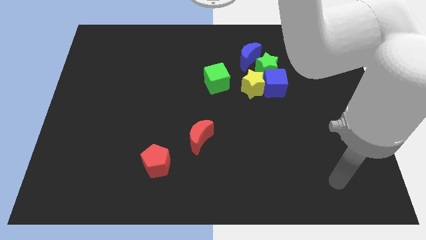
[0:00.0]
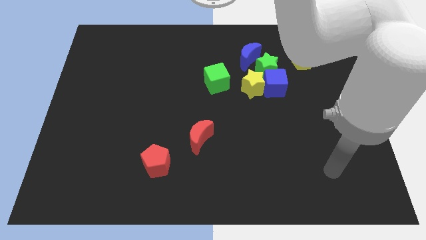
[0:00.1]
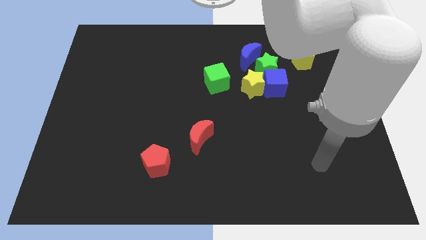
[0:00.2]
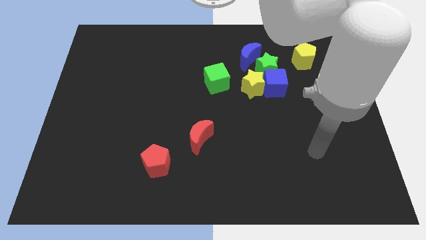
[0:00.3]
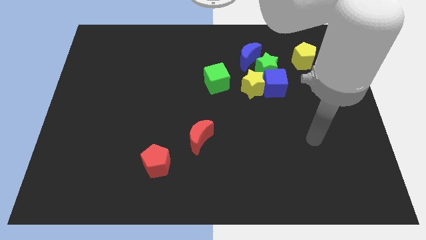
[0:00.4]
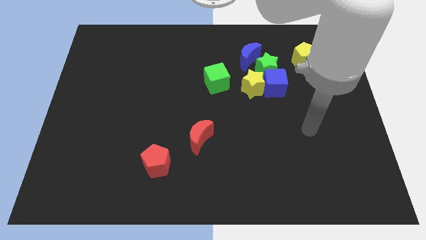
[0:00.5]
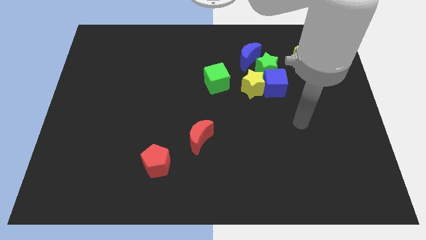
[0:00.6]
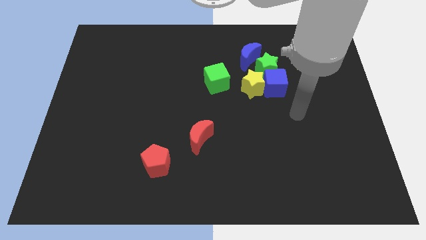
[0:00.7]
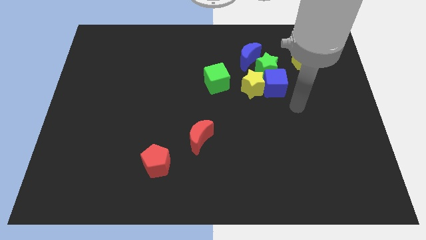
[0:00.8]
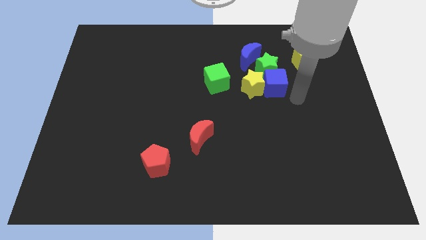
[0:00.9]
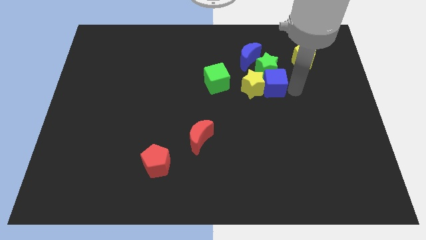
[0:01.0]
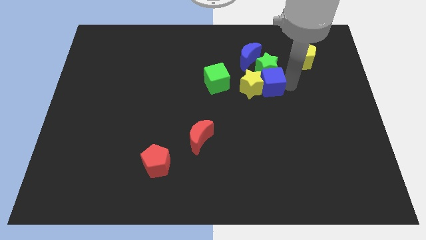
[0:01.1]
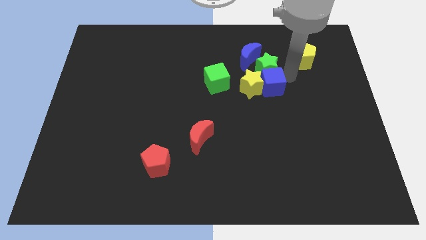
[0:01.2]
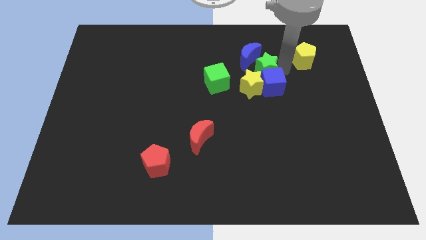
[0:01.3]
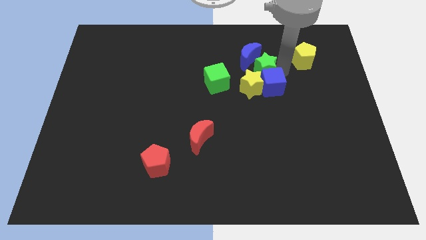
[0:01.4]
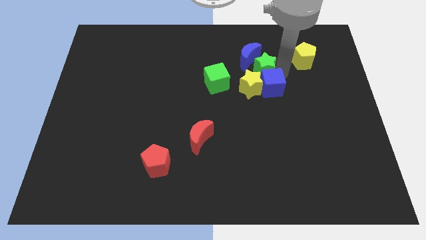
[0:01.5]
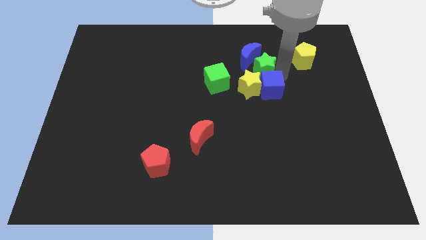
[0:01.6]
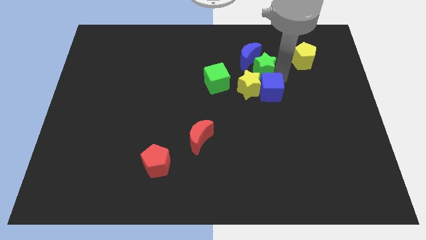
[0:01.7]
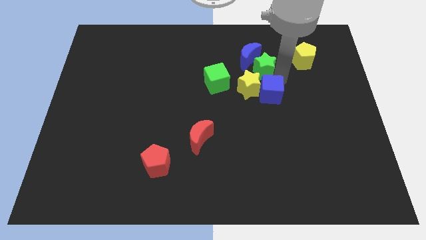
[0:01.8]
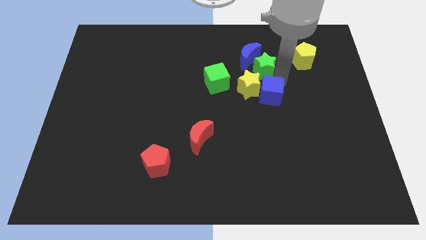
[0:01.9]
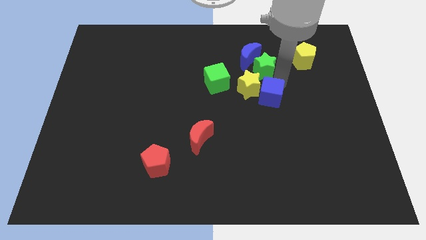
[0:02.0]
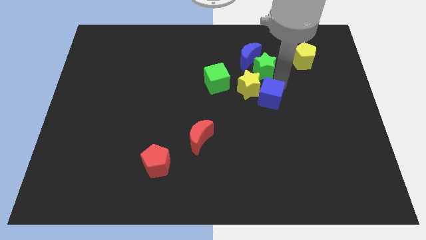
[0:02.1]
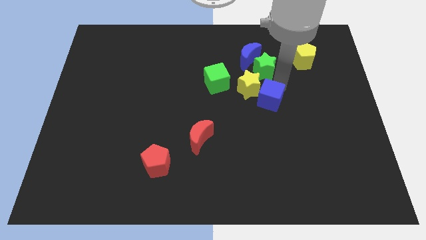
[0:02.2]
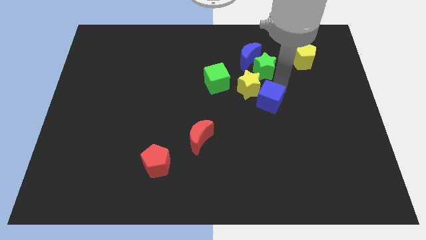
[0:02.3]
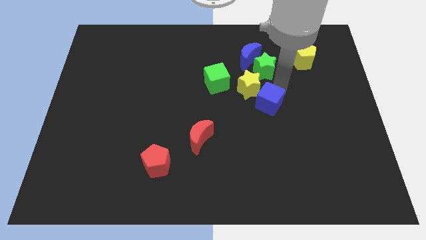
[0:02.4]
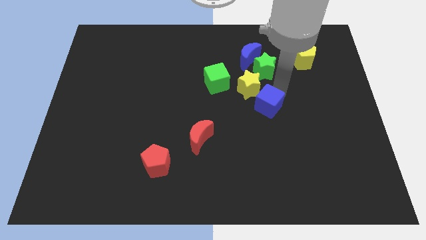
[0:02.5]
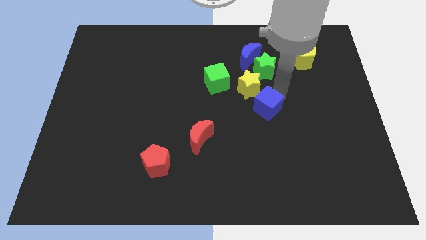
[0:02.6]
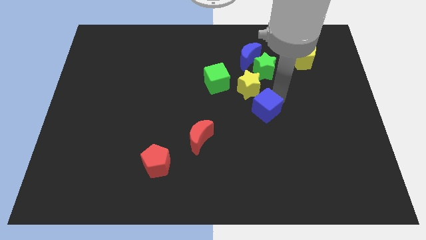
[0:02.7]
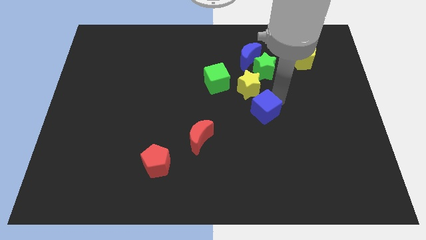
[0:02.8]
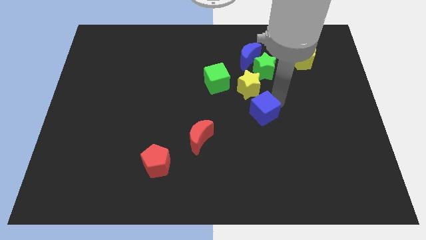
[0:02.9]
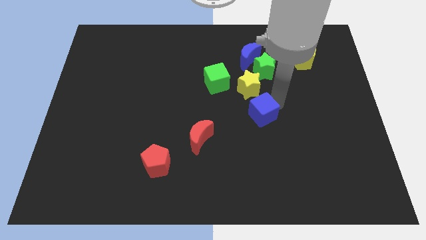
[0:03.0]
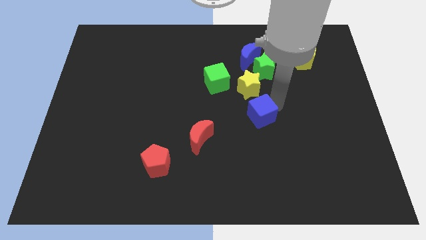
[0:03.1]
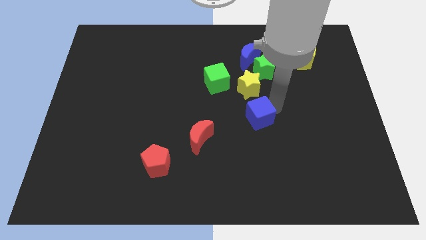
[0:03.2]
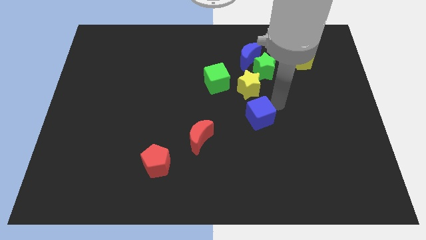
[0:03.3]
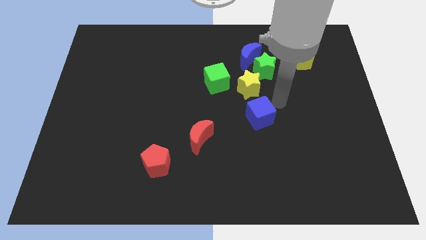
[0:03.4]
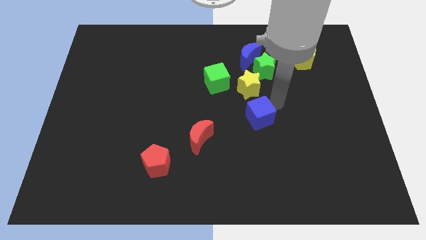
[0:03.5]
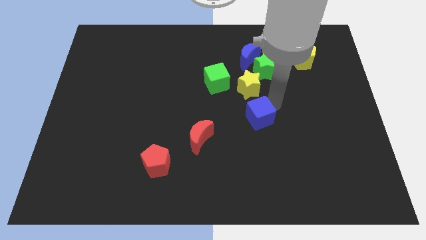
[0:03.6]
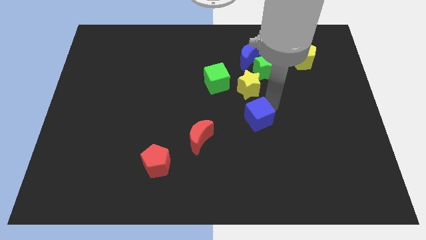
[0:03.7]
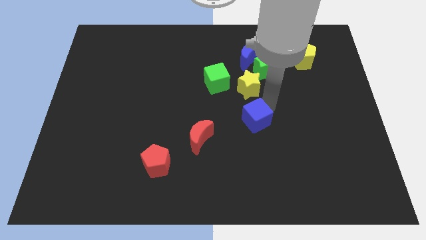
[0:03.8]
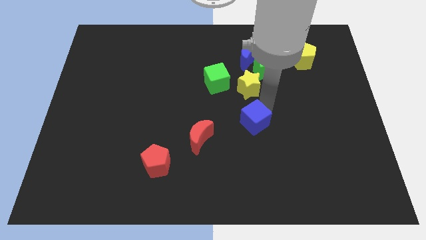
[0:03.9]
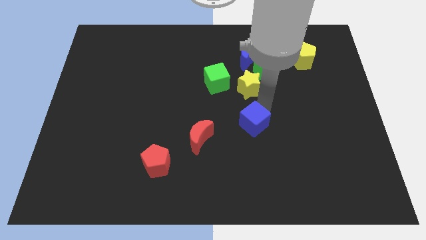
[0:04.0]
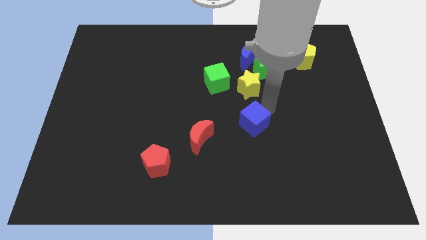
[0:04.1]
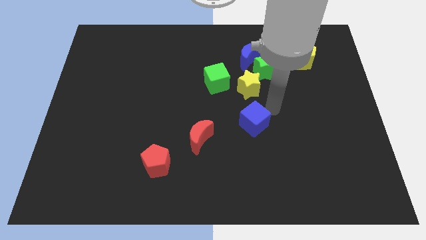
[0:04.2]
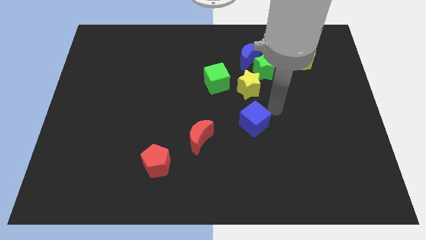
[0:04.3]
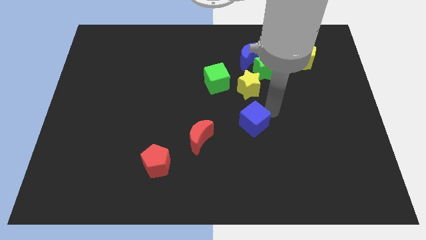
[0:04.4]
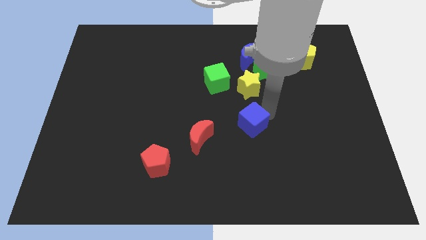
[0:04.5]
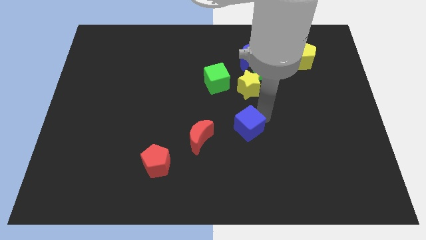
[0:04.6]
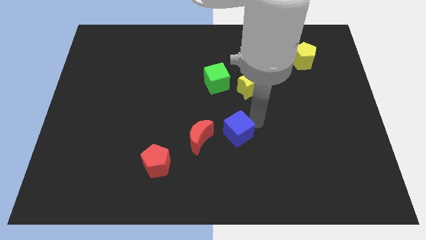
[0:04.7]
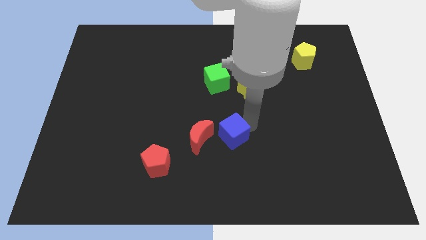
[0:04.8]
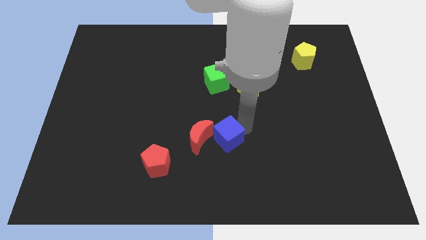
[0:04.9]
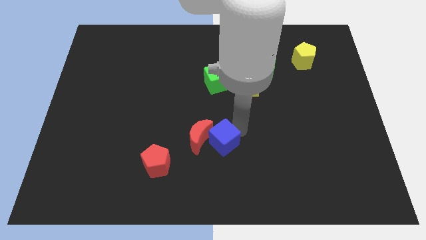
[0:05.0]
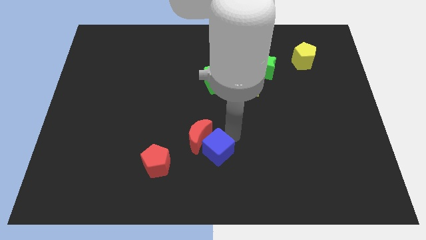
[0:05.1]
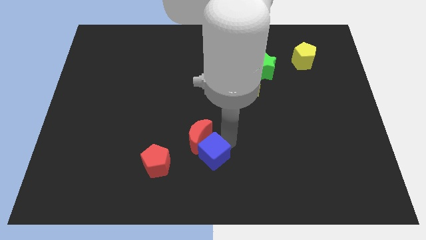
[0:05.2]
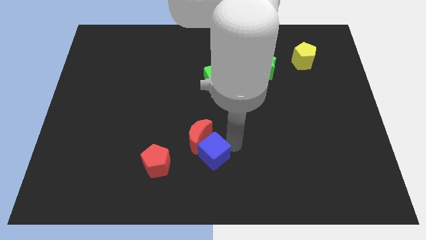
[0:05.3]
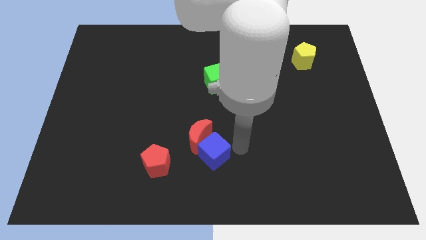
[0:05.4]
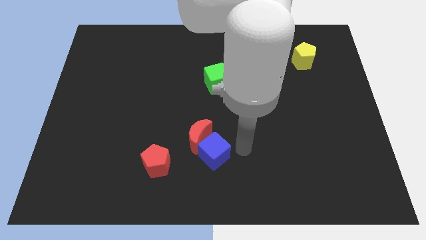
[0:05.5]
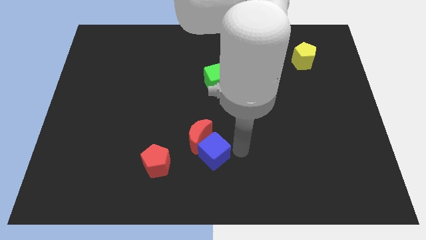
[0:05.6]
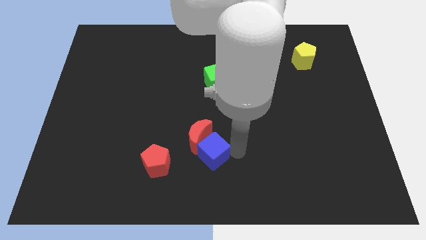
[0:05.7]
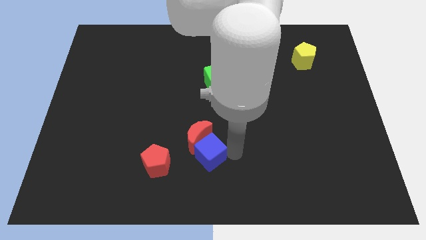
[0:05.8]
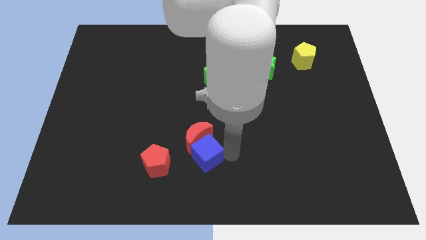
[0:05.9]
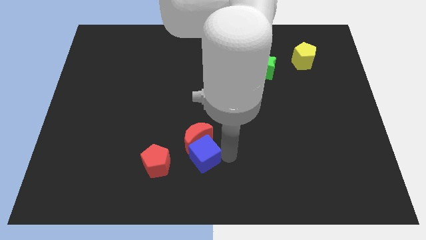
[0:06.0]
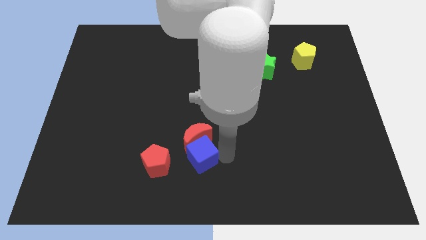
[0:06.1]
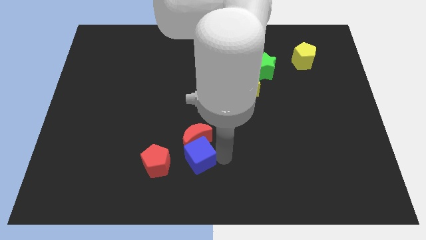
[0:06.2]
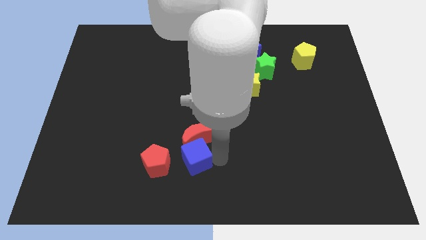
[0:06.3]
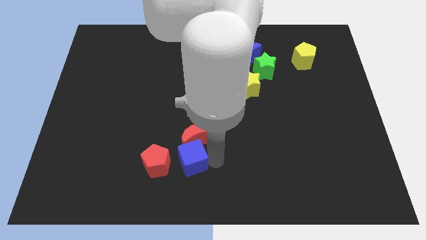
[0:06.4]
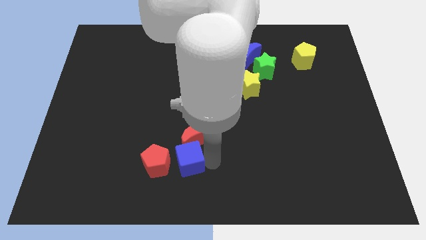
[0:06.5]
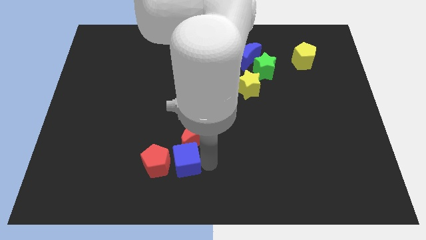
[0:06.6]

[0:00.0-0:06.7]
move the blue cube close to the red pentagon

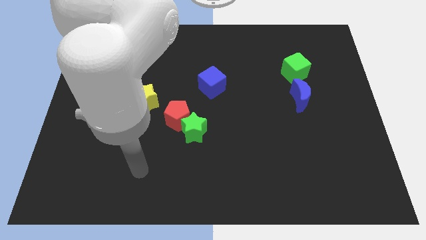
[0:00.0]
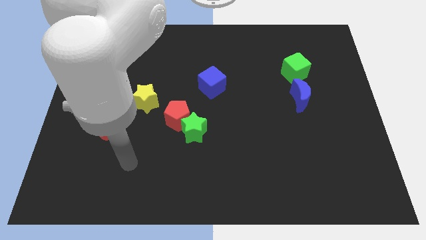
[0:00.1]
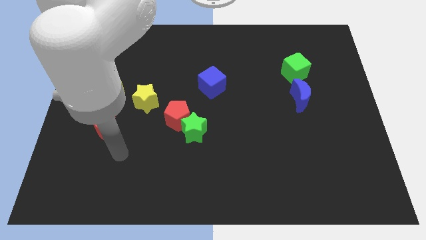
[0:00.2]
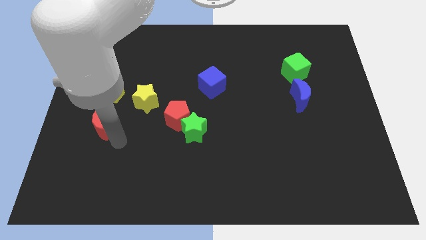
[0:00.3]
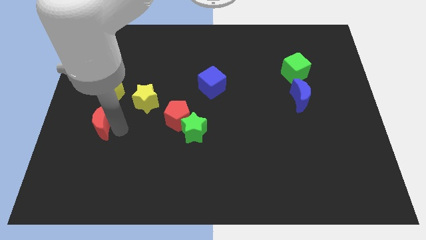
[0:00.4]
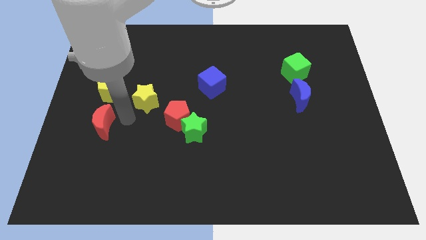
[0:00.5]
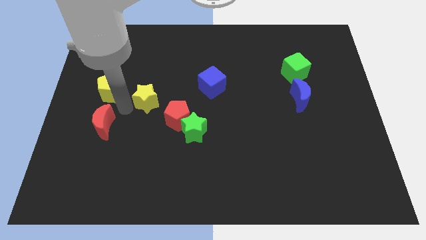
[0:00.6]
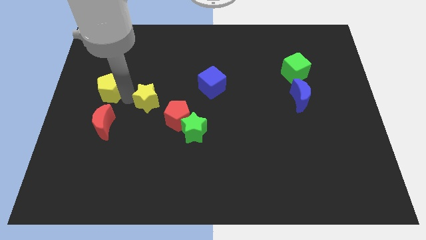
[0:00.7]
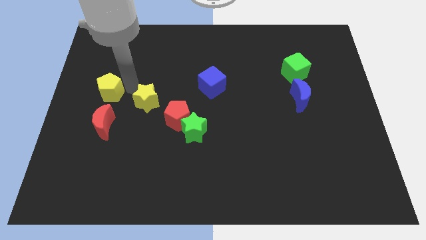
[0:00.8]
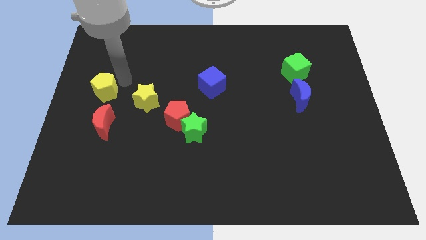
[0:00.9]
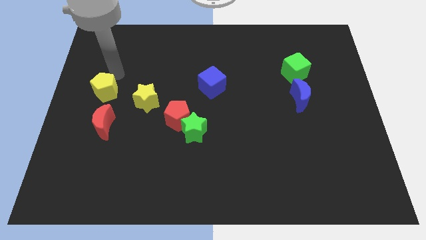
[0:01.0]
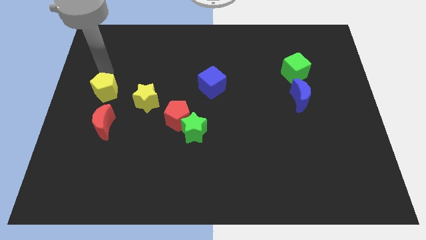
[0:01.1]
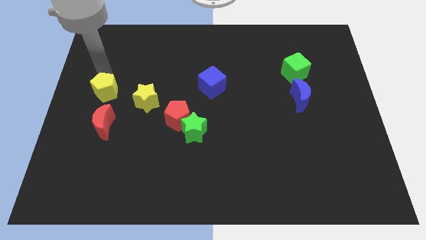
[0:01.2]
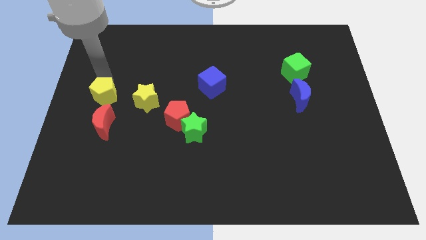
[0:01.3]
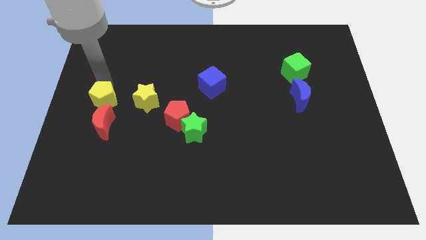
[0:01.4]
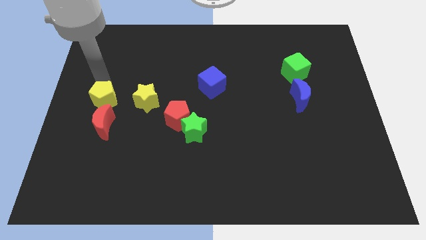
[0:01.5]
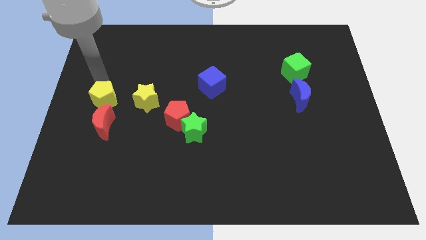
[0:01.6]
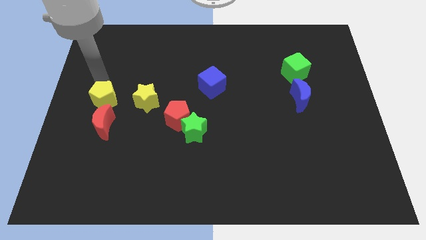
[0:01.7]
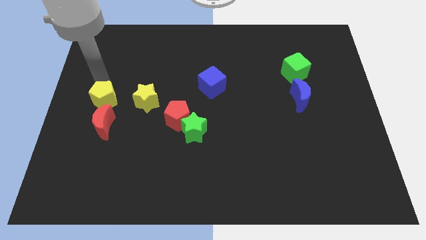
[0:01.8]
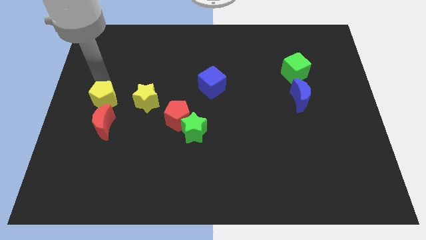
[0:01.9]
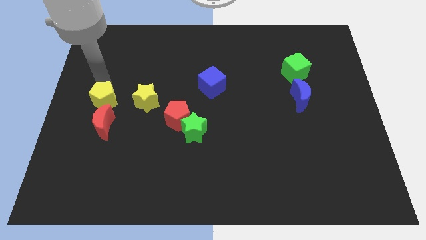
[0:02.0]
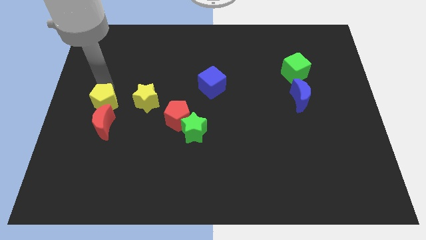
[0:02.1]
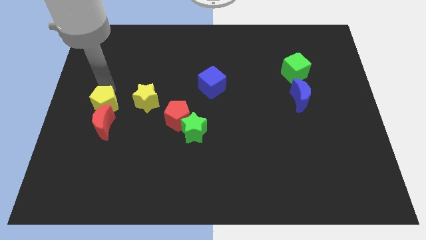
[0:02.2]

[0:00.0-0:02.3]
put the yellow pentagon to the red moon
